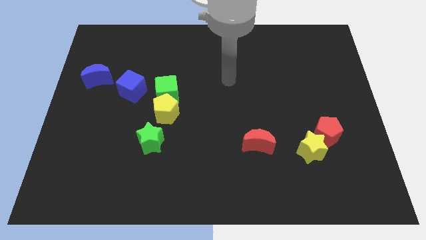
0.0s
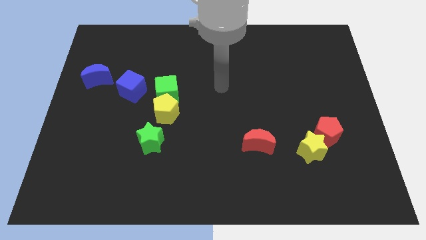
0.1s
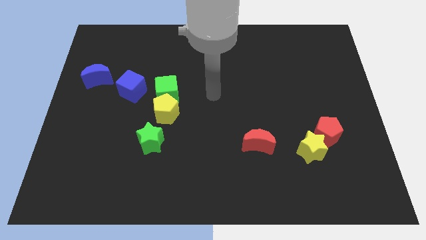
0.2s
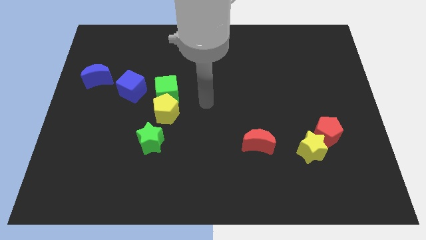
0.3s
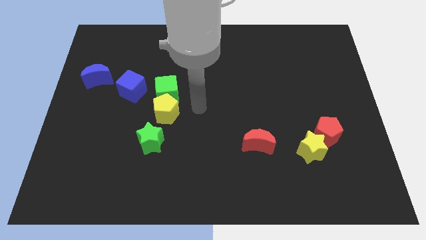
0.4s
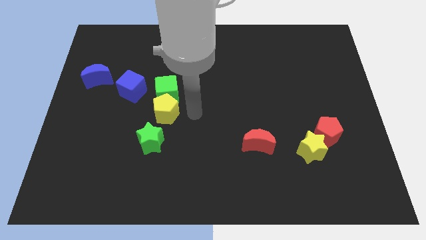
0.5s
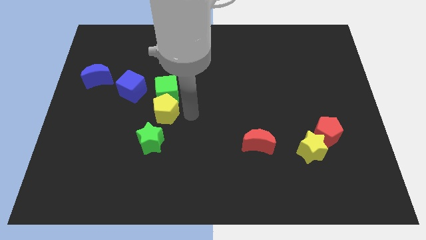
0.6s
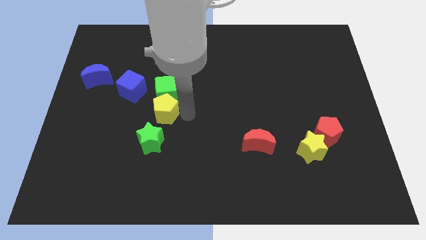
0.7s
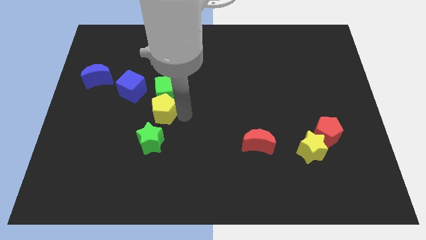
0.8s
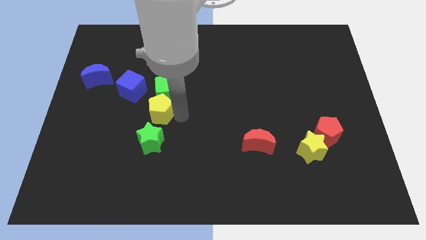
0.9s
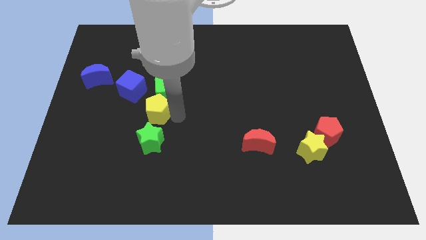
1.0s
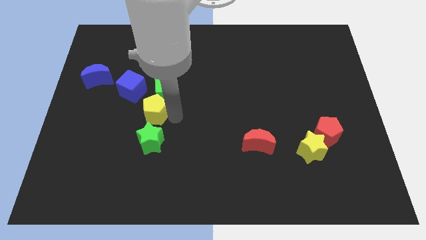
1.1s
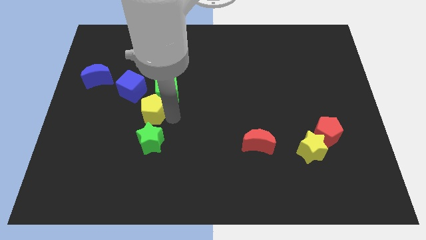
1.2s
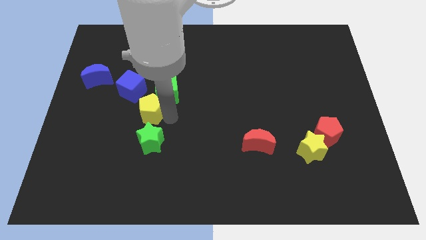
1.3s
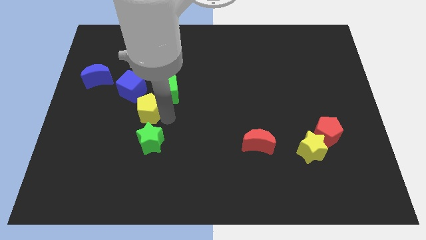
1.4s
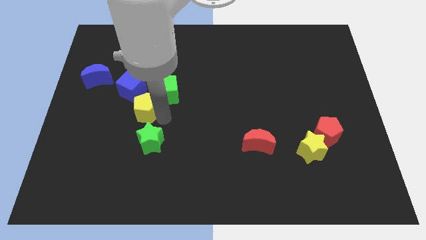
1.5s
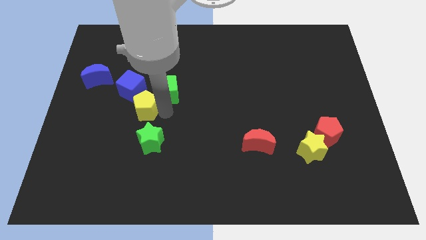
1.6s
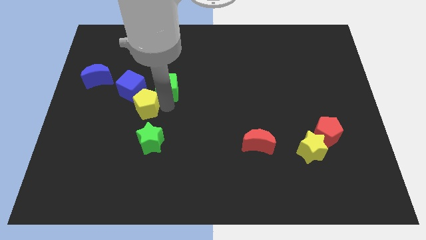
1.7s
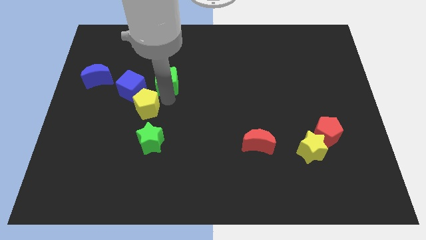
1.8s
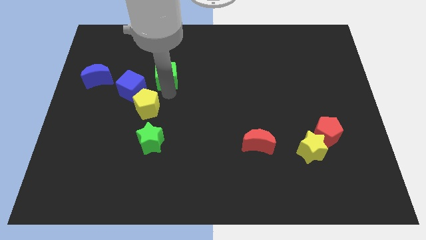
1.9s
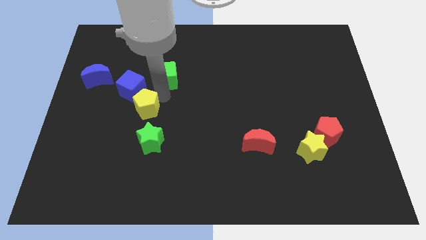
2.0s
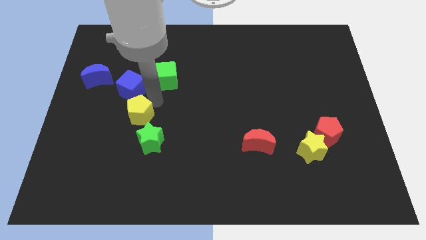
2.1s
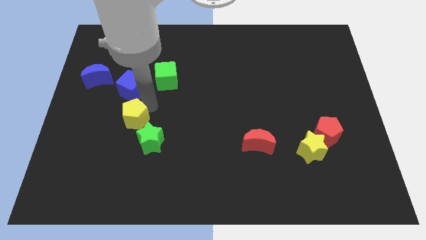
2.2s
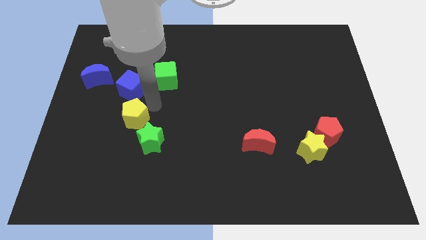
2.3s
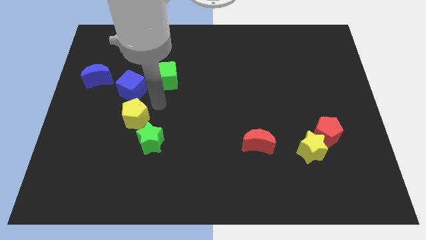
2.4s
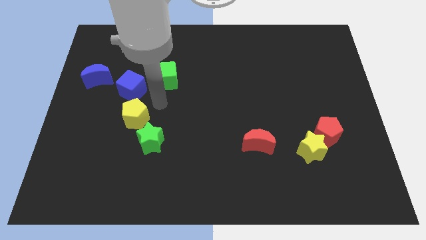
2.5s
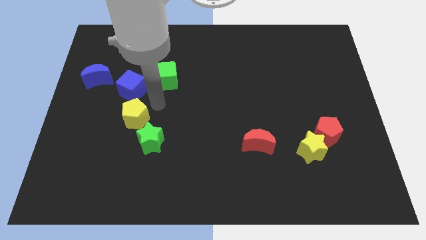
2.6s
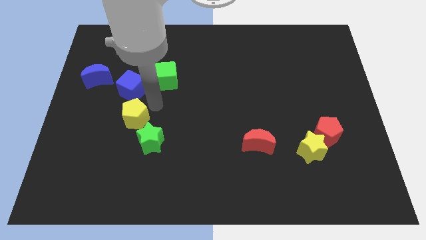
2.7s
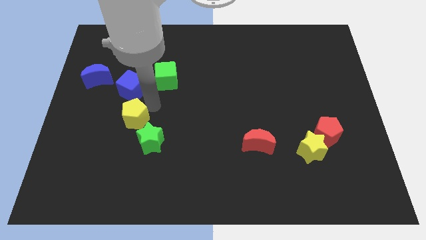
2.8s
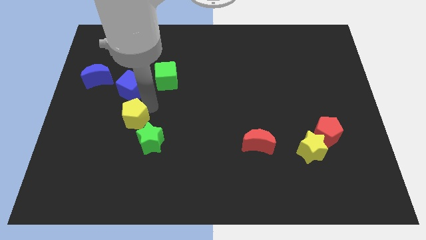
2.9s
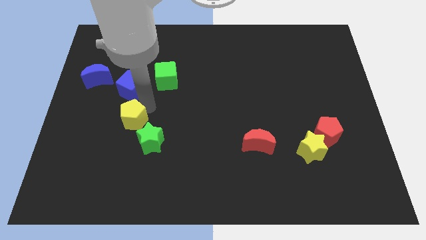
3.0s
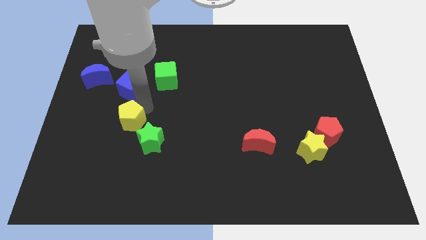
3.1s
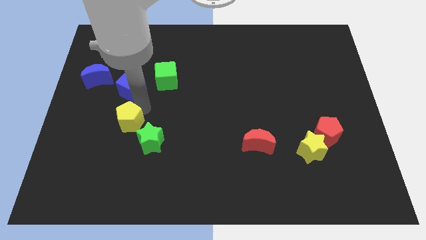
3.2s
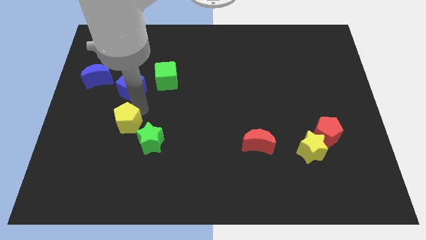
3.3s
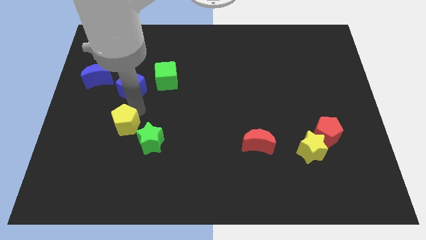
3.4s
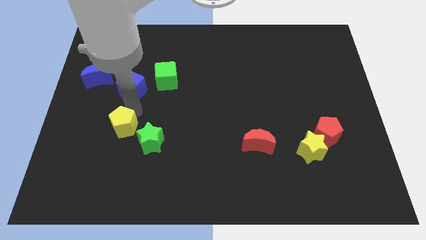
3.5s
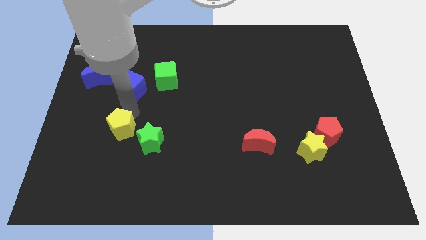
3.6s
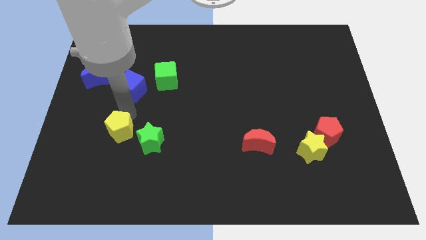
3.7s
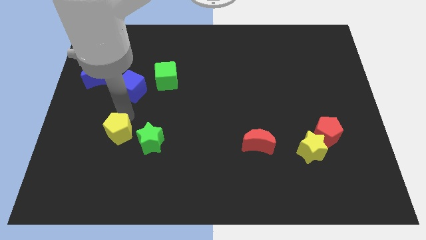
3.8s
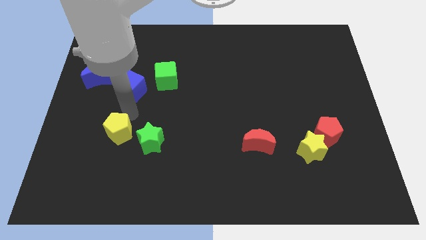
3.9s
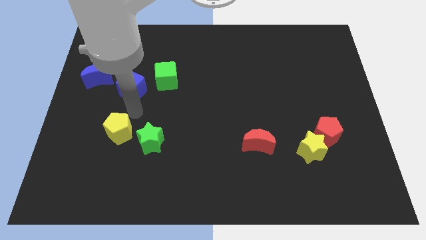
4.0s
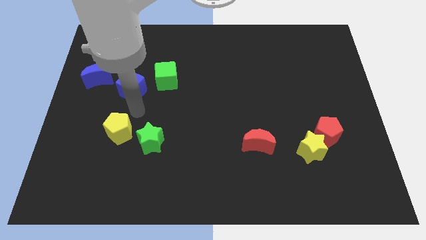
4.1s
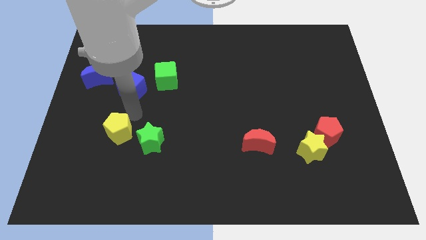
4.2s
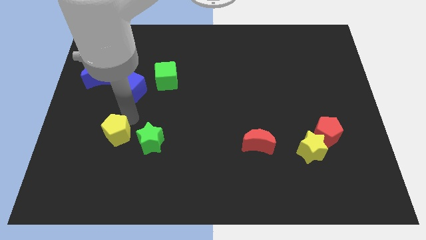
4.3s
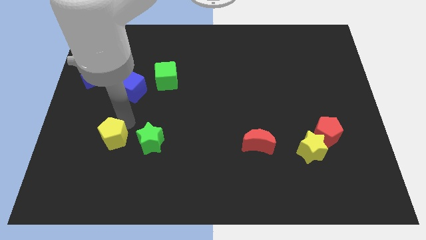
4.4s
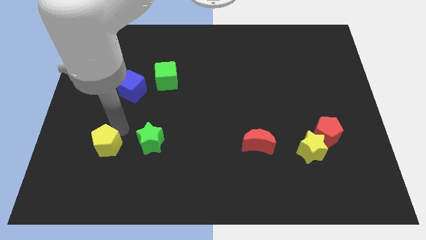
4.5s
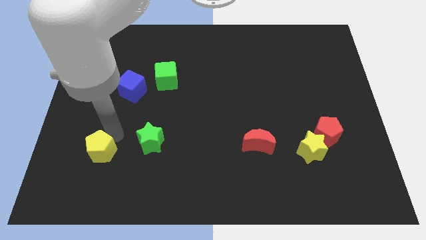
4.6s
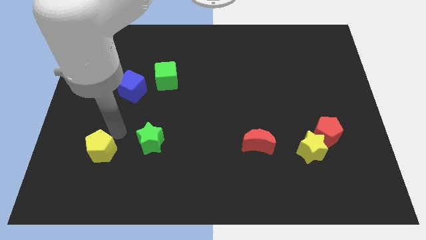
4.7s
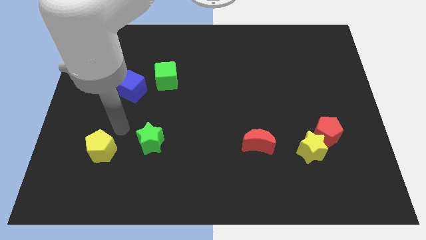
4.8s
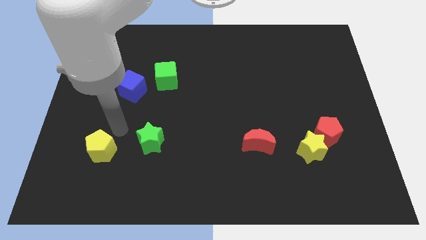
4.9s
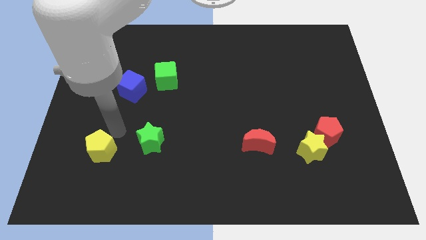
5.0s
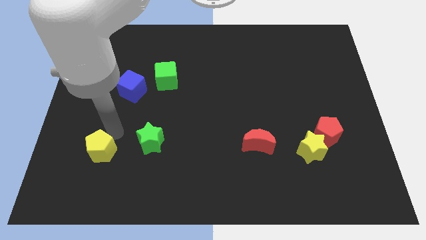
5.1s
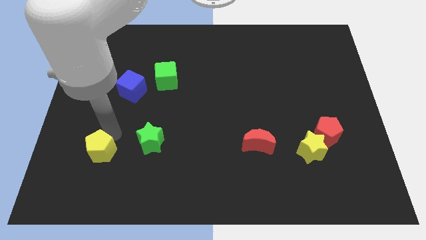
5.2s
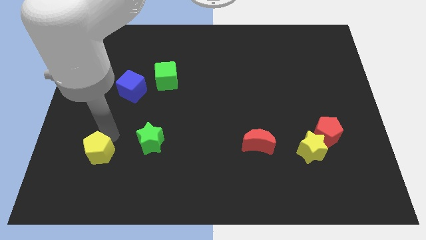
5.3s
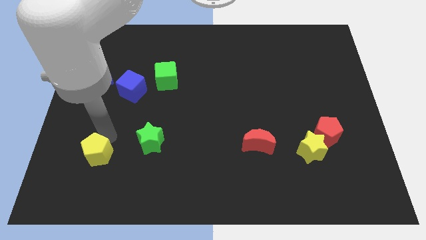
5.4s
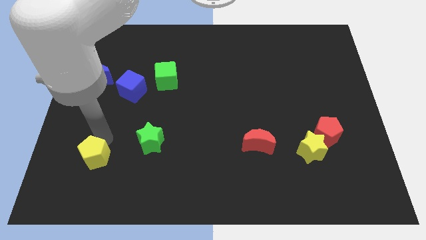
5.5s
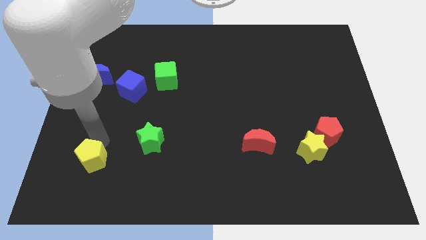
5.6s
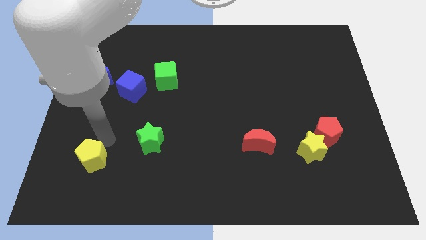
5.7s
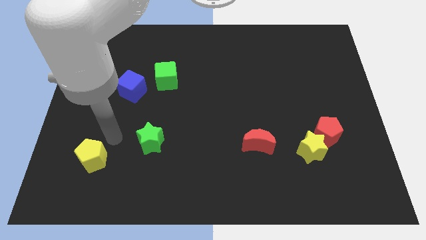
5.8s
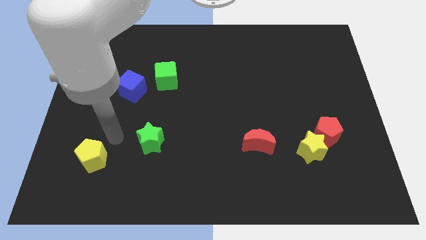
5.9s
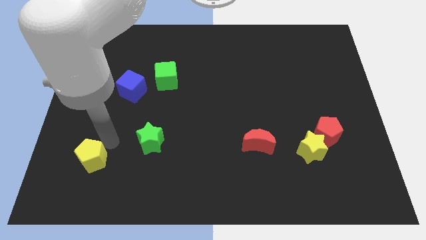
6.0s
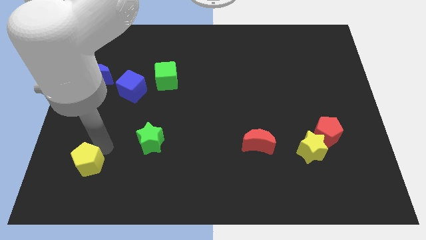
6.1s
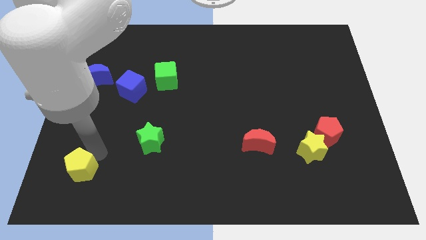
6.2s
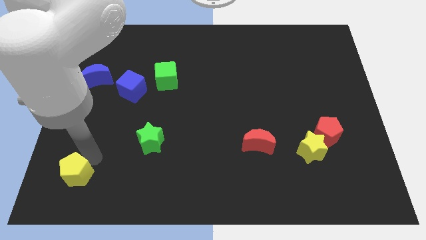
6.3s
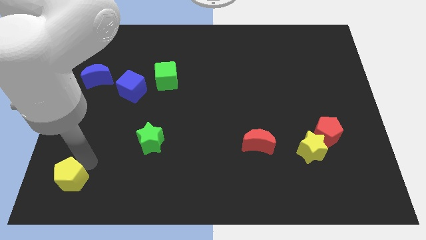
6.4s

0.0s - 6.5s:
put the yellow pentagon to the bottom left corner

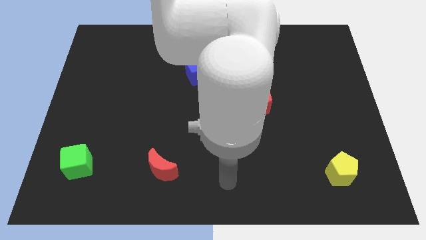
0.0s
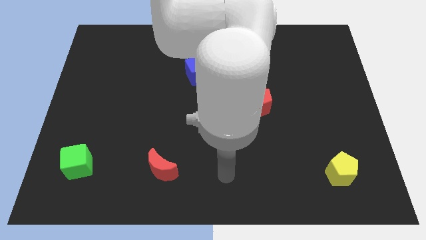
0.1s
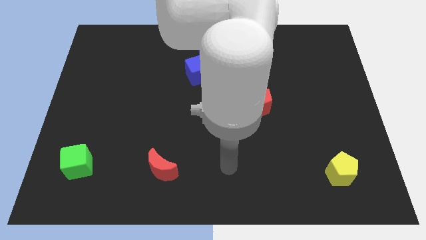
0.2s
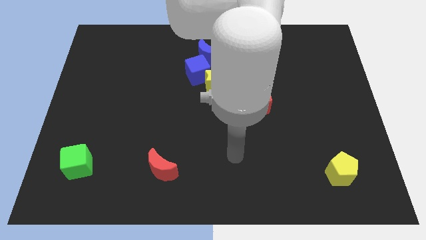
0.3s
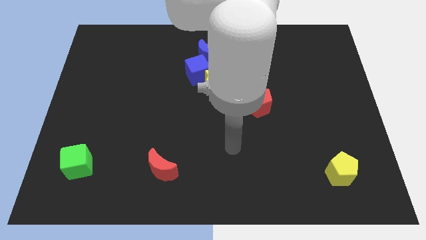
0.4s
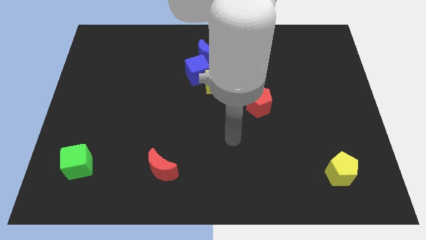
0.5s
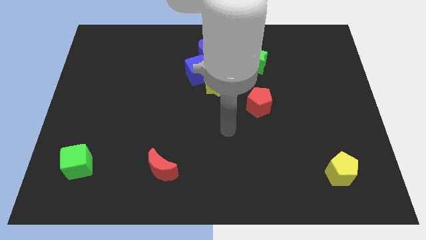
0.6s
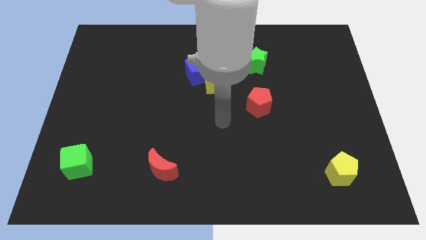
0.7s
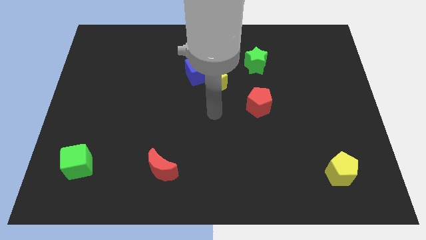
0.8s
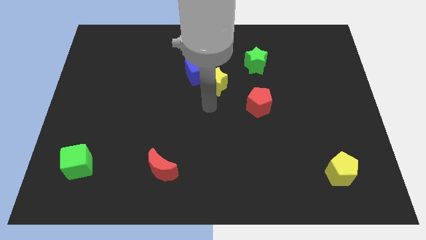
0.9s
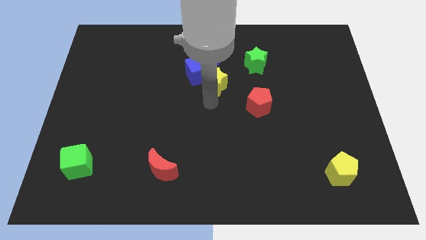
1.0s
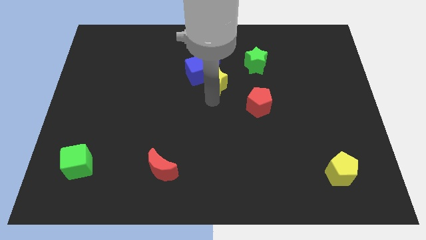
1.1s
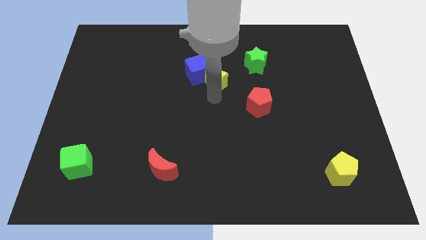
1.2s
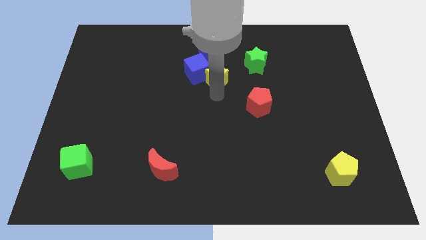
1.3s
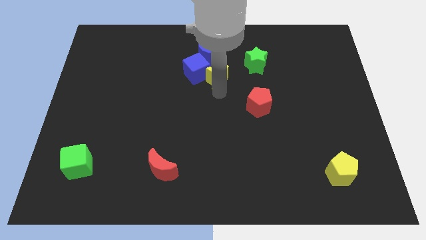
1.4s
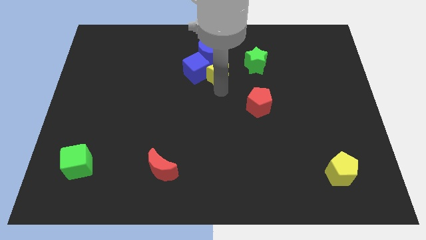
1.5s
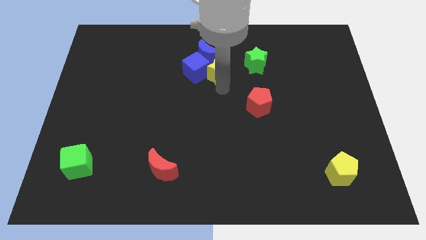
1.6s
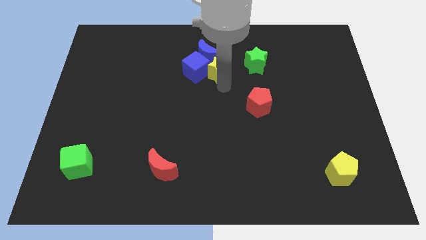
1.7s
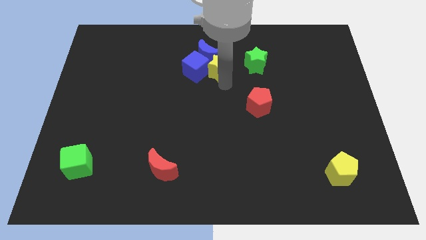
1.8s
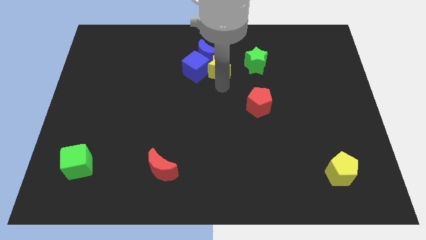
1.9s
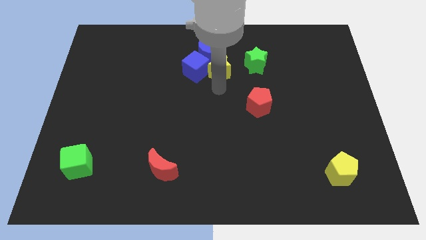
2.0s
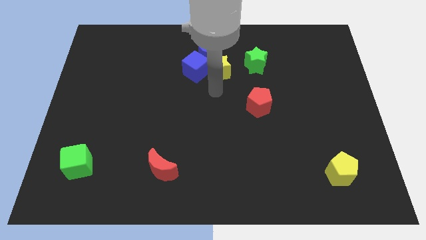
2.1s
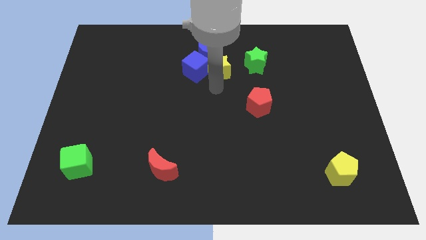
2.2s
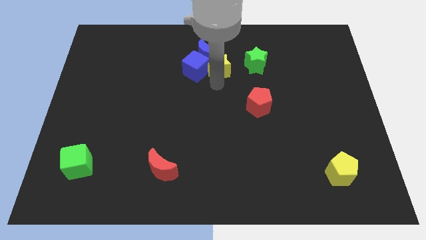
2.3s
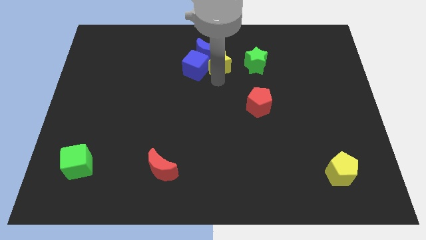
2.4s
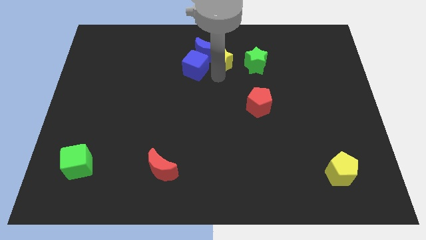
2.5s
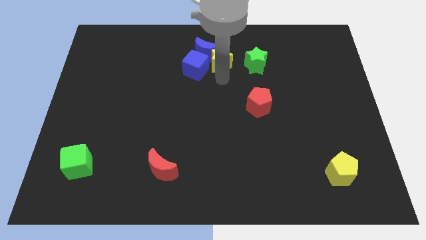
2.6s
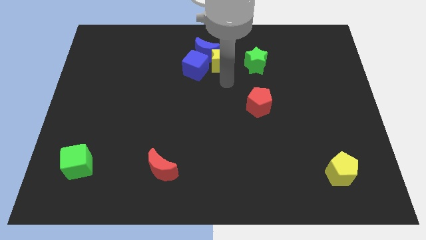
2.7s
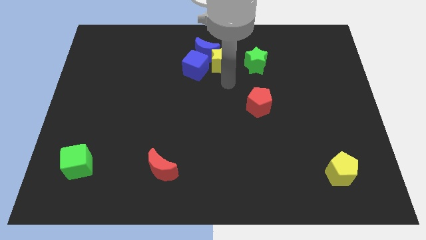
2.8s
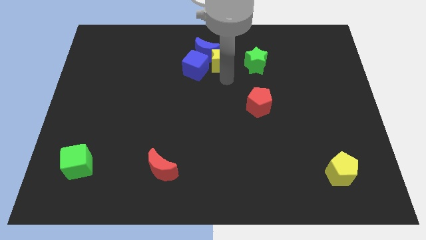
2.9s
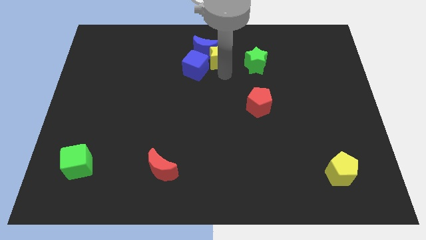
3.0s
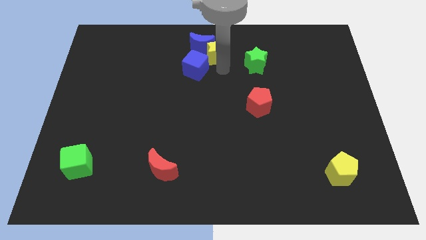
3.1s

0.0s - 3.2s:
put the yellow star to the top
